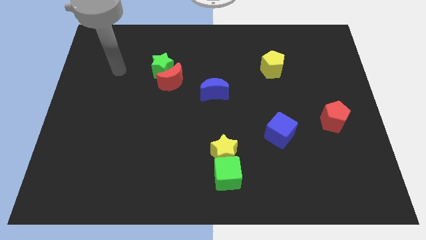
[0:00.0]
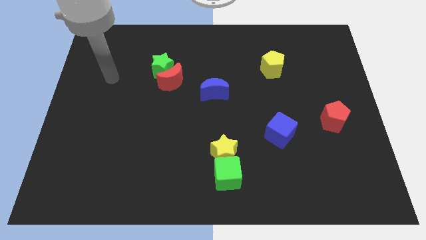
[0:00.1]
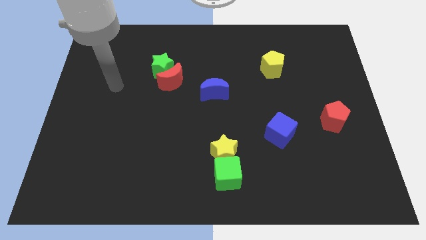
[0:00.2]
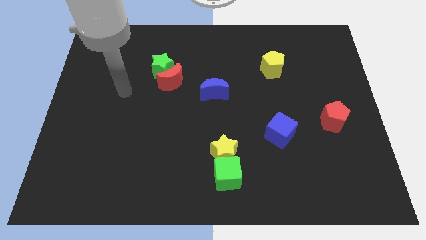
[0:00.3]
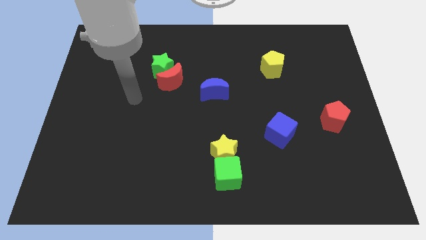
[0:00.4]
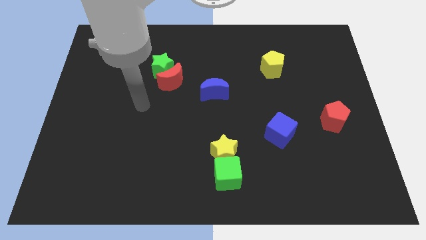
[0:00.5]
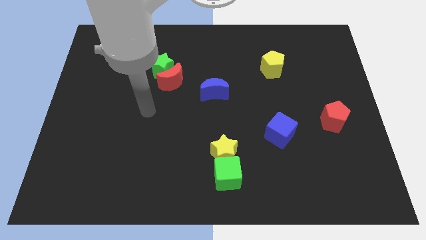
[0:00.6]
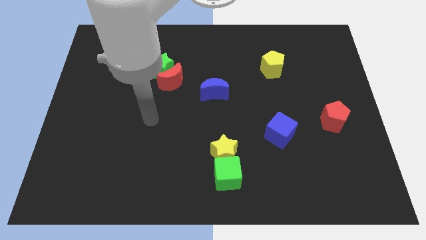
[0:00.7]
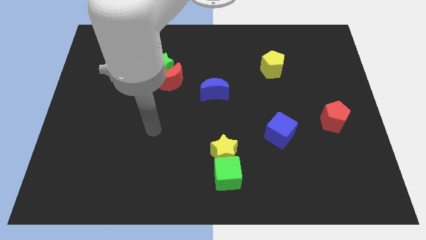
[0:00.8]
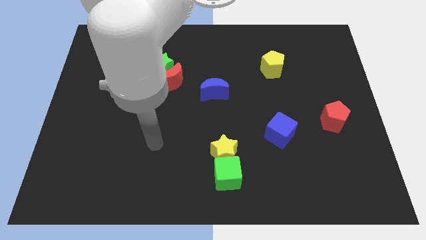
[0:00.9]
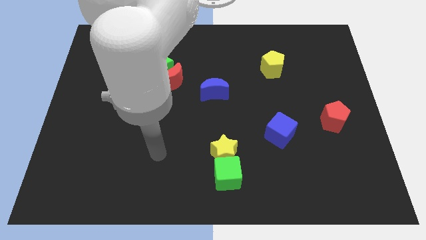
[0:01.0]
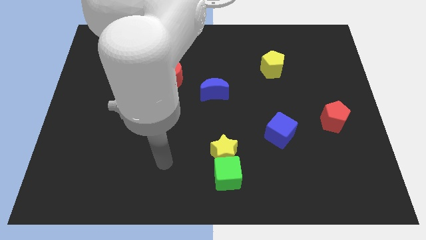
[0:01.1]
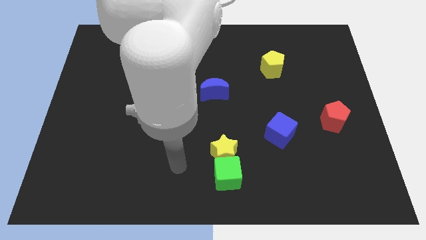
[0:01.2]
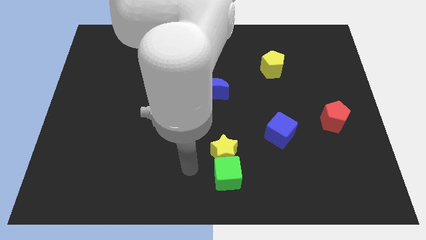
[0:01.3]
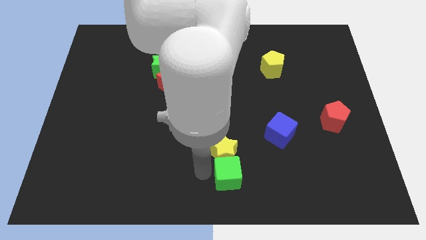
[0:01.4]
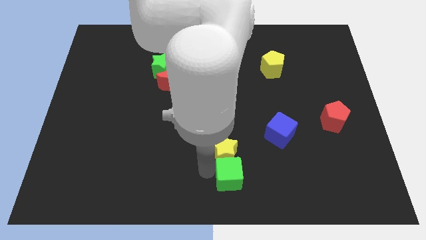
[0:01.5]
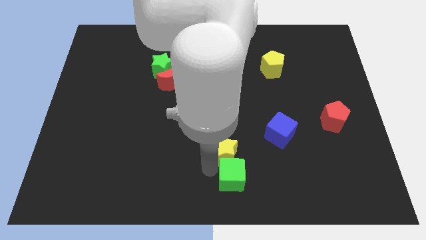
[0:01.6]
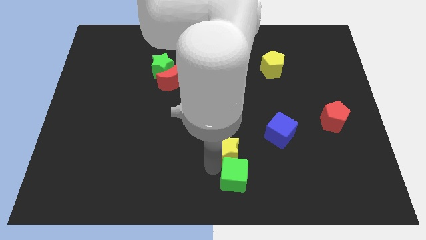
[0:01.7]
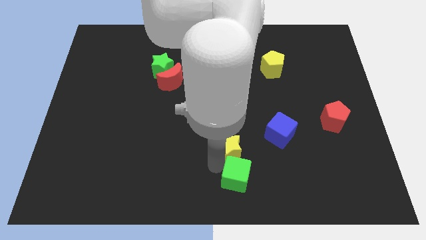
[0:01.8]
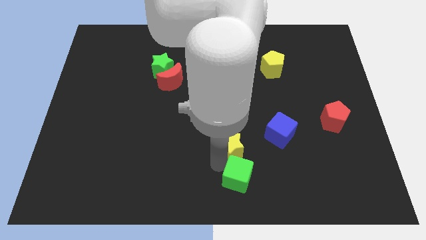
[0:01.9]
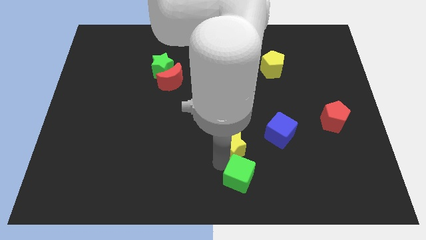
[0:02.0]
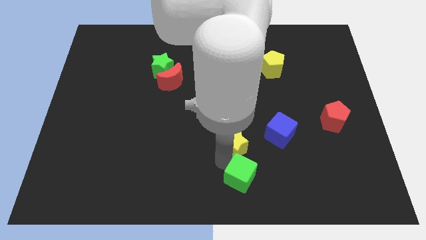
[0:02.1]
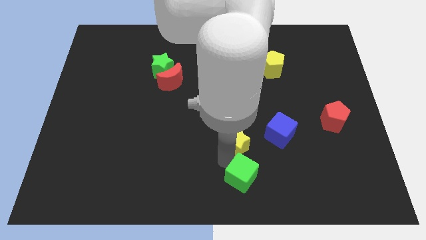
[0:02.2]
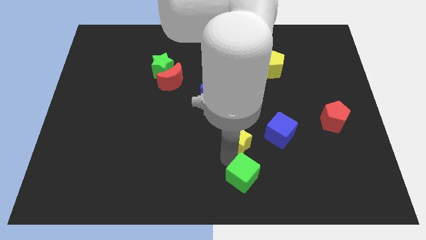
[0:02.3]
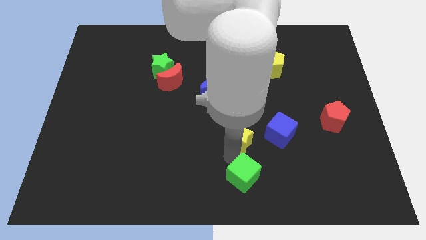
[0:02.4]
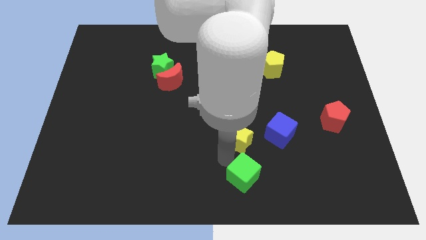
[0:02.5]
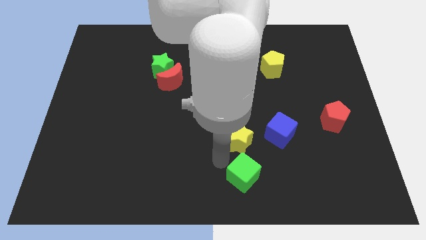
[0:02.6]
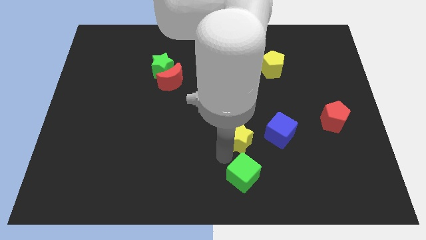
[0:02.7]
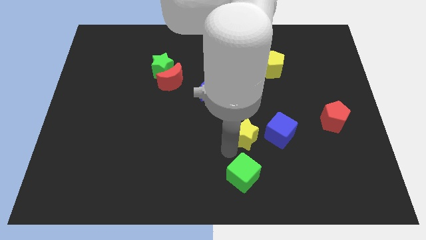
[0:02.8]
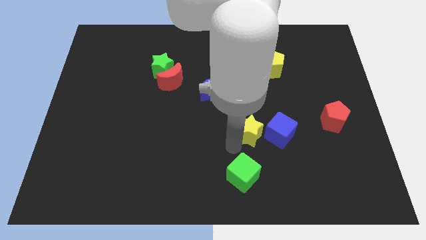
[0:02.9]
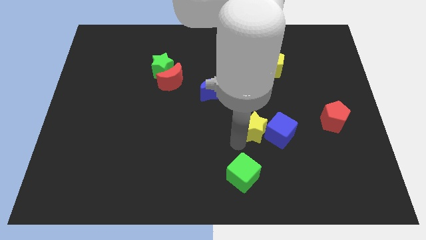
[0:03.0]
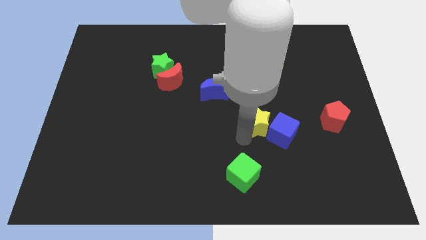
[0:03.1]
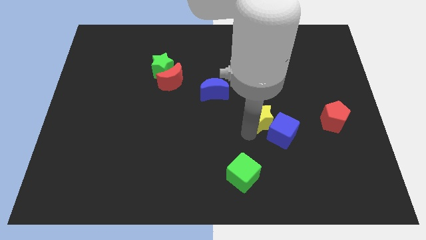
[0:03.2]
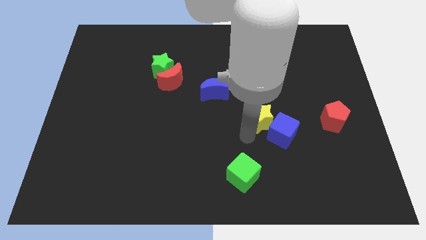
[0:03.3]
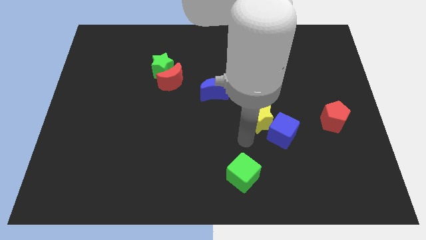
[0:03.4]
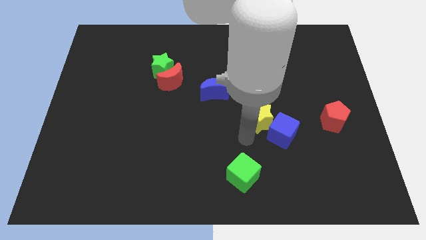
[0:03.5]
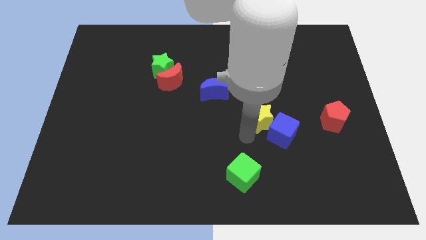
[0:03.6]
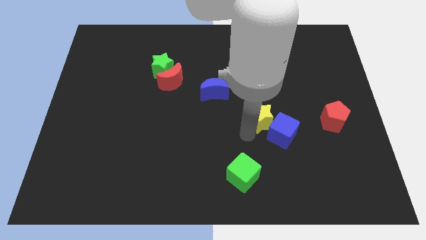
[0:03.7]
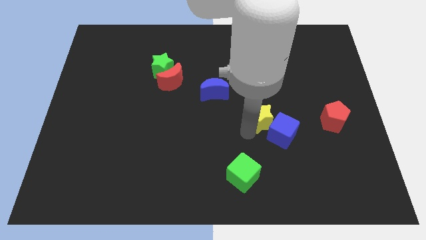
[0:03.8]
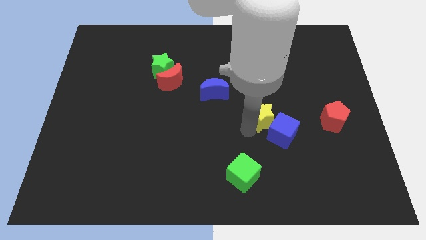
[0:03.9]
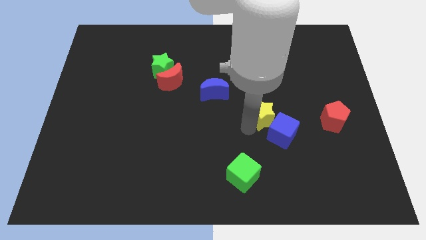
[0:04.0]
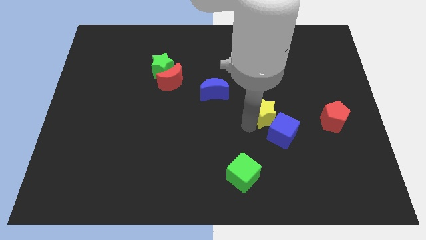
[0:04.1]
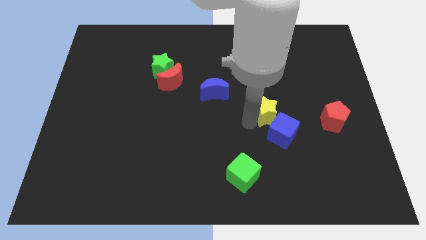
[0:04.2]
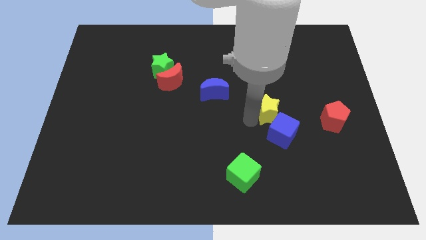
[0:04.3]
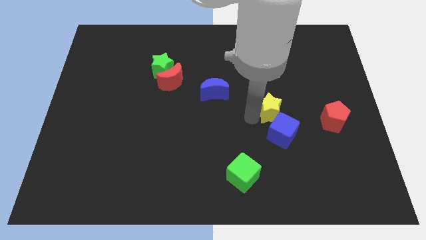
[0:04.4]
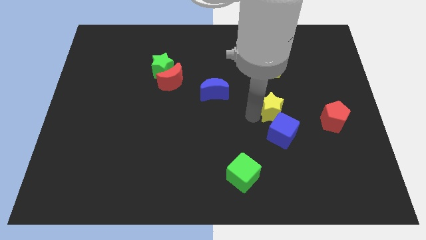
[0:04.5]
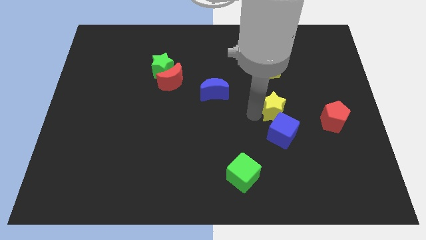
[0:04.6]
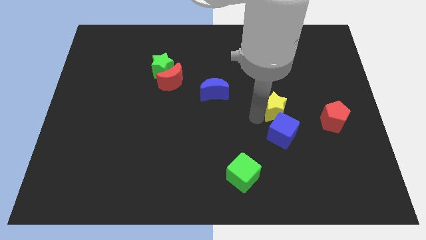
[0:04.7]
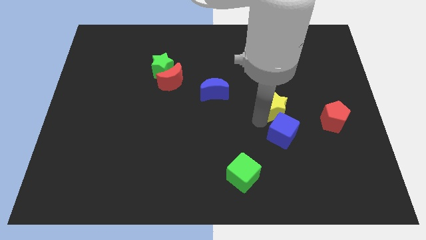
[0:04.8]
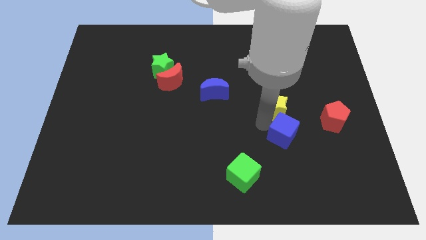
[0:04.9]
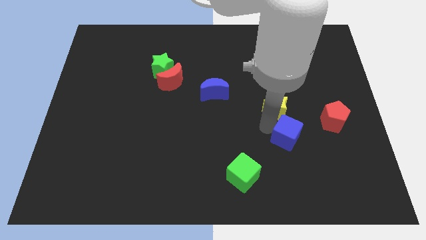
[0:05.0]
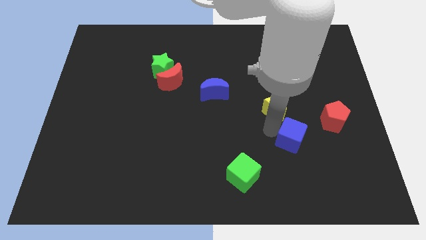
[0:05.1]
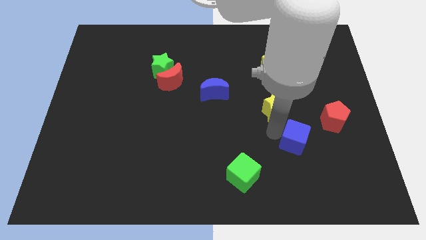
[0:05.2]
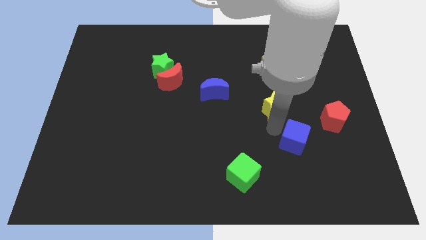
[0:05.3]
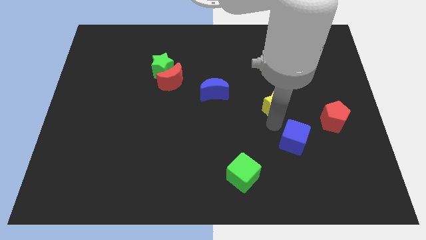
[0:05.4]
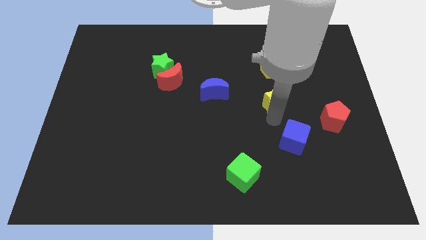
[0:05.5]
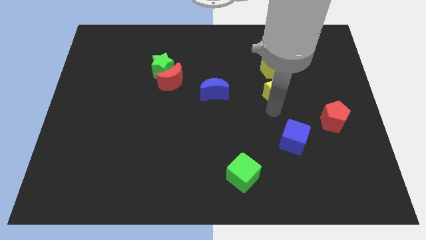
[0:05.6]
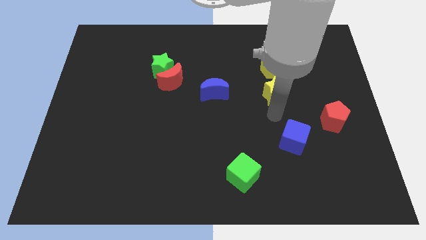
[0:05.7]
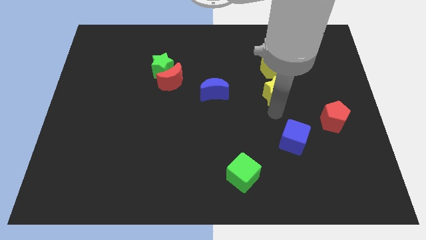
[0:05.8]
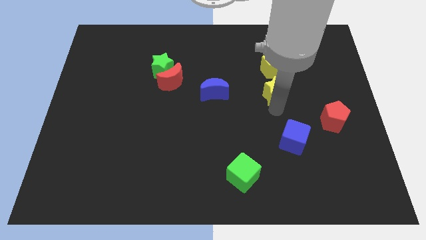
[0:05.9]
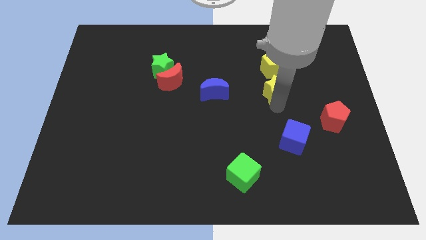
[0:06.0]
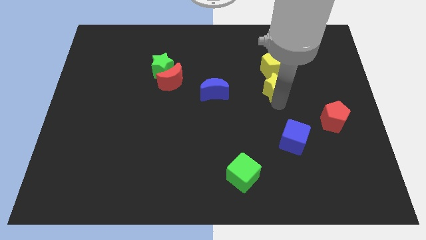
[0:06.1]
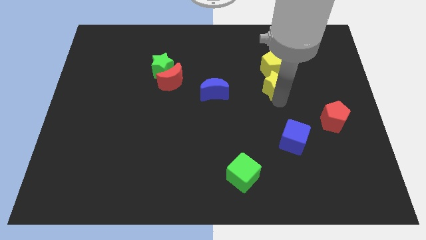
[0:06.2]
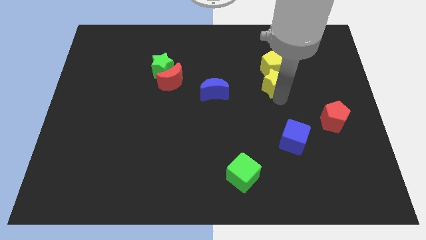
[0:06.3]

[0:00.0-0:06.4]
put the yellow star next to the yellow pentagon
